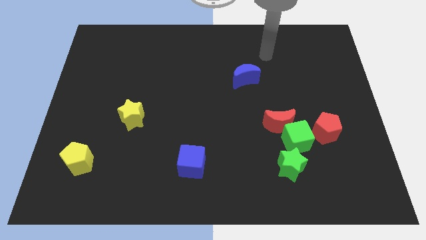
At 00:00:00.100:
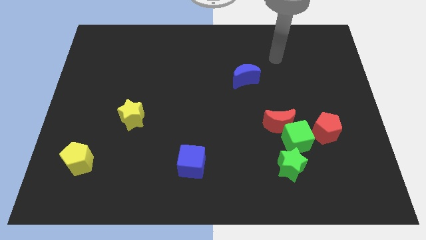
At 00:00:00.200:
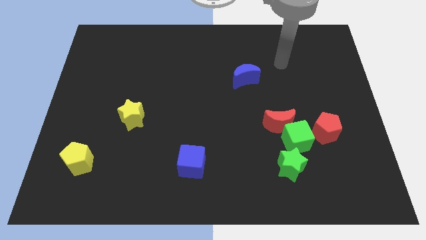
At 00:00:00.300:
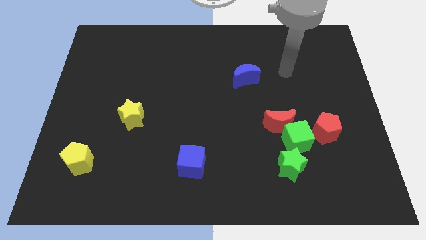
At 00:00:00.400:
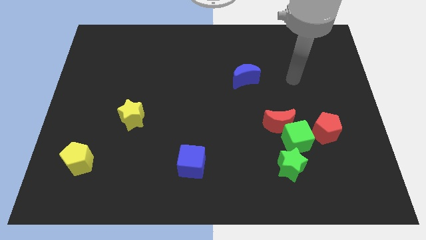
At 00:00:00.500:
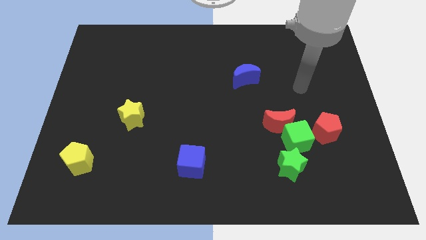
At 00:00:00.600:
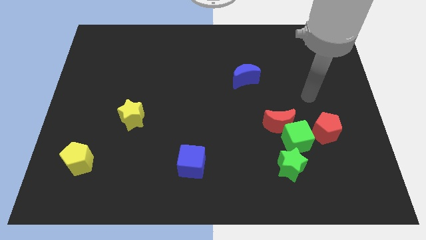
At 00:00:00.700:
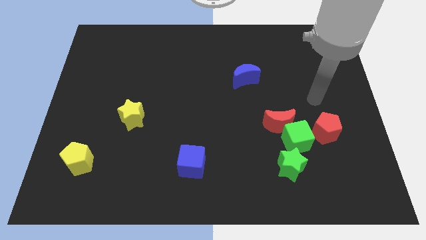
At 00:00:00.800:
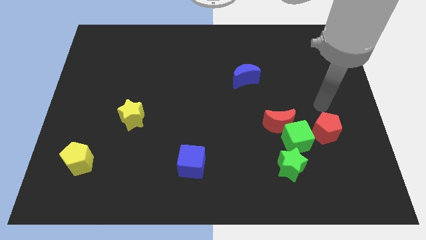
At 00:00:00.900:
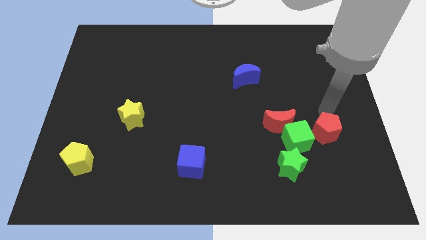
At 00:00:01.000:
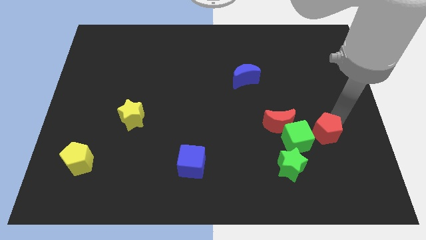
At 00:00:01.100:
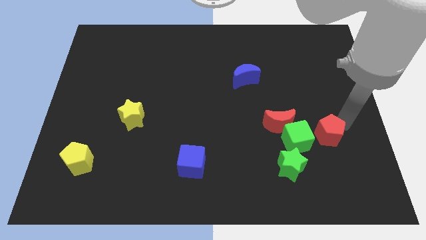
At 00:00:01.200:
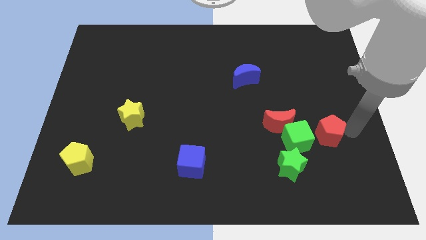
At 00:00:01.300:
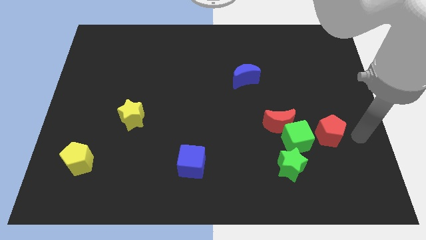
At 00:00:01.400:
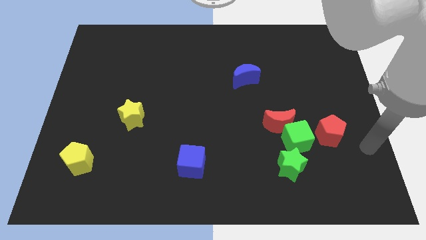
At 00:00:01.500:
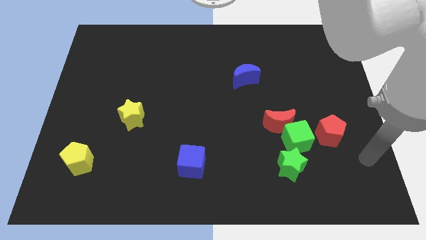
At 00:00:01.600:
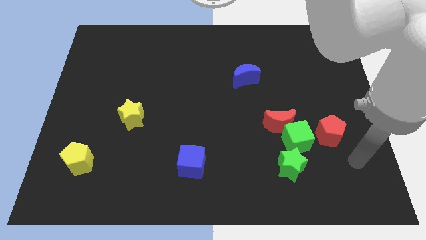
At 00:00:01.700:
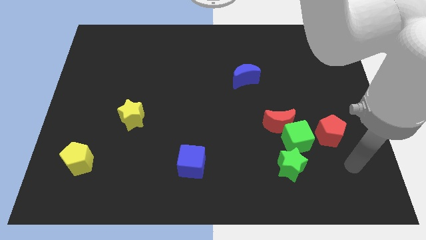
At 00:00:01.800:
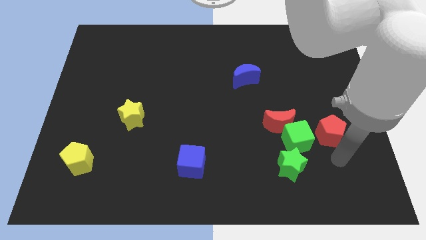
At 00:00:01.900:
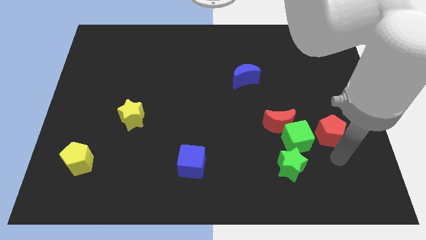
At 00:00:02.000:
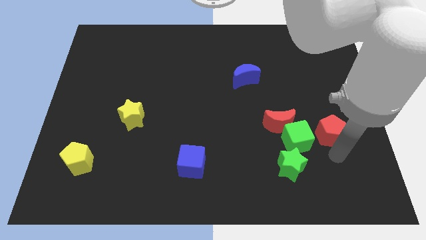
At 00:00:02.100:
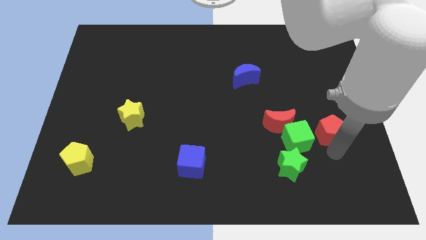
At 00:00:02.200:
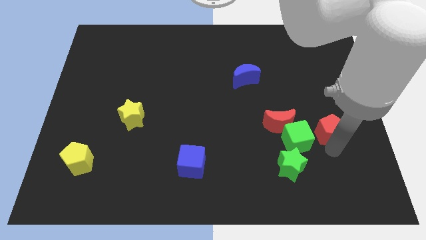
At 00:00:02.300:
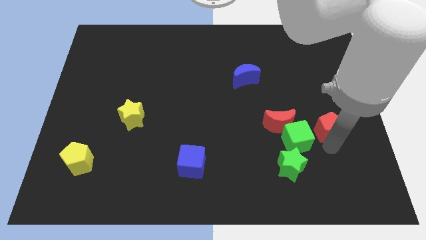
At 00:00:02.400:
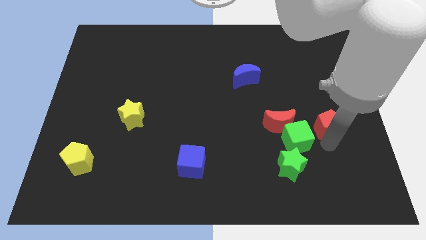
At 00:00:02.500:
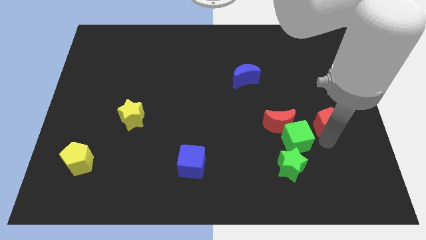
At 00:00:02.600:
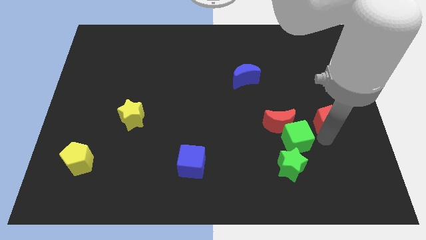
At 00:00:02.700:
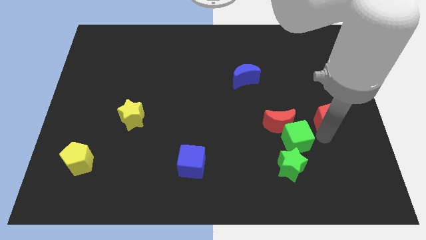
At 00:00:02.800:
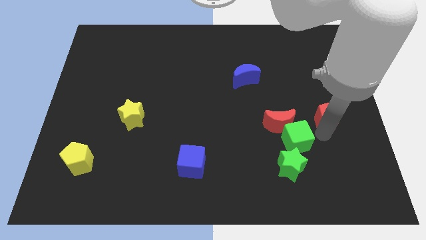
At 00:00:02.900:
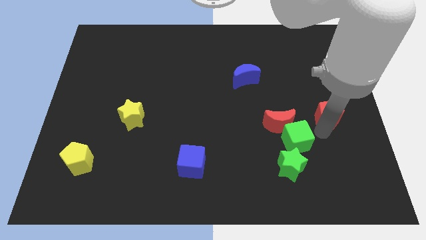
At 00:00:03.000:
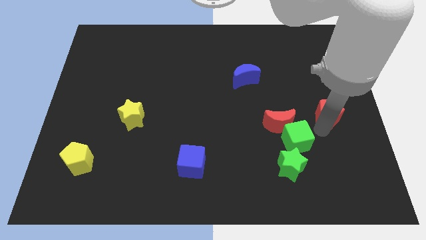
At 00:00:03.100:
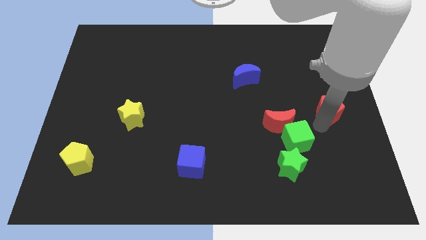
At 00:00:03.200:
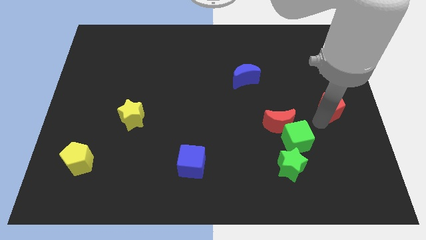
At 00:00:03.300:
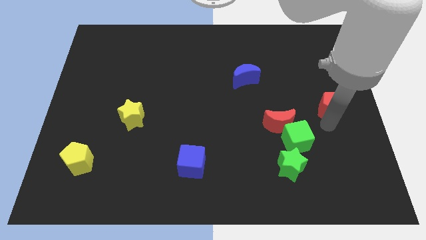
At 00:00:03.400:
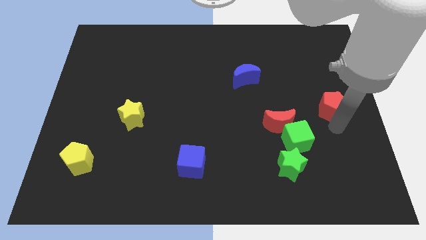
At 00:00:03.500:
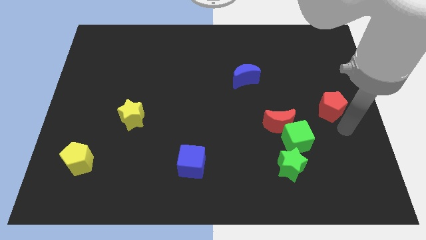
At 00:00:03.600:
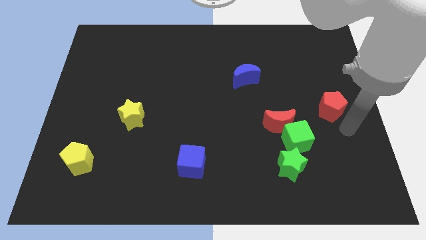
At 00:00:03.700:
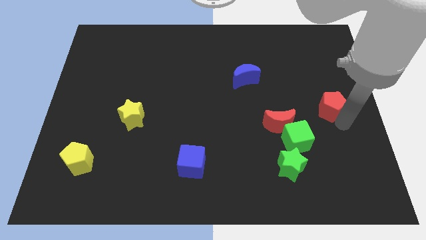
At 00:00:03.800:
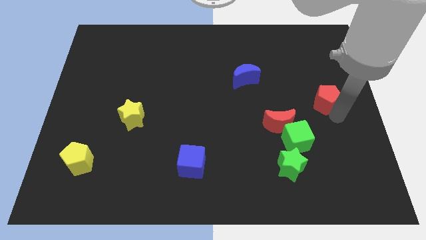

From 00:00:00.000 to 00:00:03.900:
slightly push the red pentagon up

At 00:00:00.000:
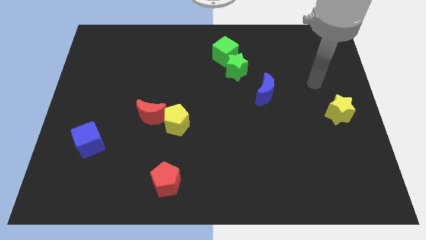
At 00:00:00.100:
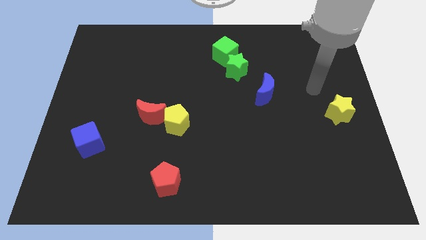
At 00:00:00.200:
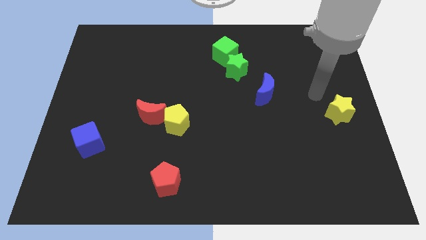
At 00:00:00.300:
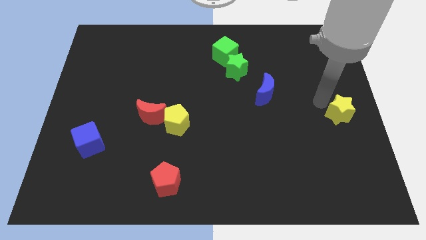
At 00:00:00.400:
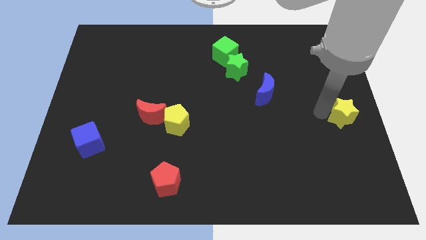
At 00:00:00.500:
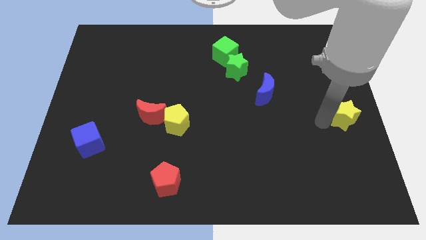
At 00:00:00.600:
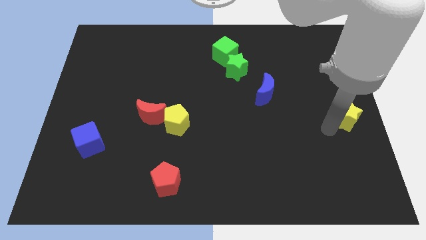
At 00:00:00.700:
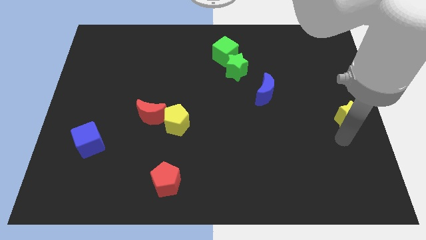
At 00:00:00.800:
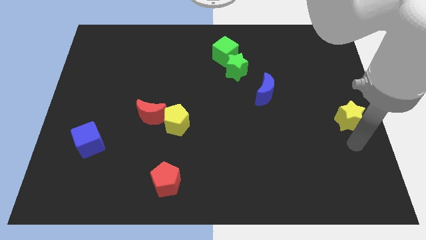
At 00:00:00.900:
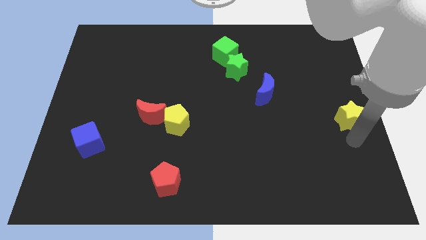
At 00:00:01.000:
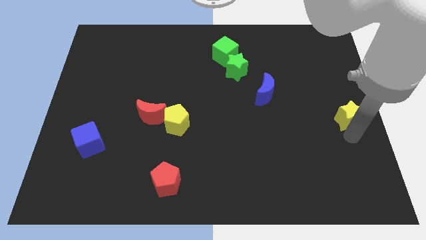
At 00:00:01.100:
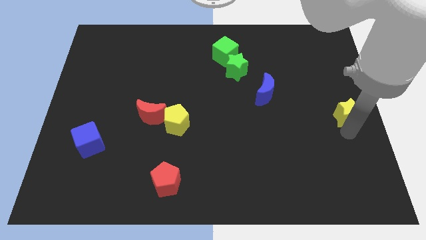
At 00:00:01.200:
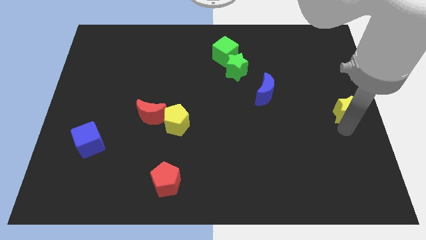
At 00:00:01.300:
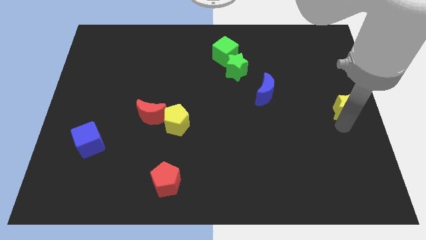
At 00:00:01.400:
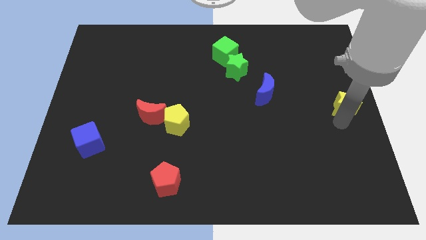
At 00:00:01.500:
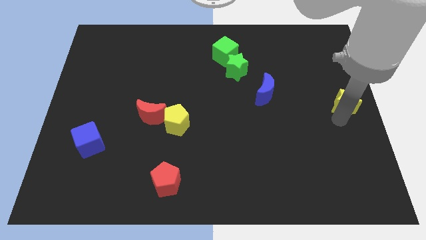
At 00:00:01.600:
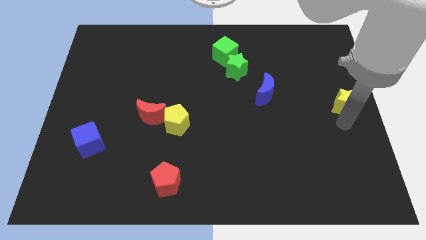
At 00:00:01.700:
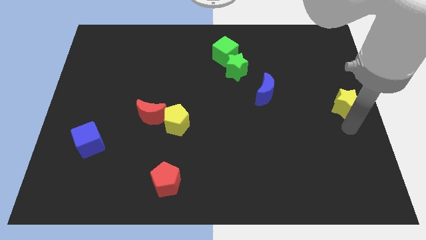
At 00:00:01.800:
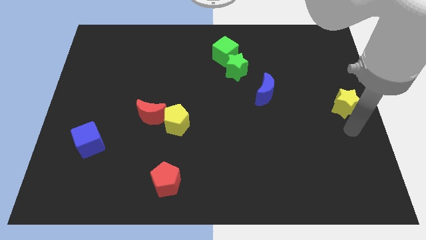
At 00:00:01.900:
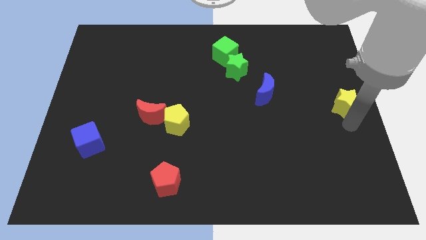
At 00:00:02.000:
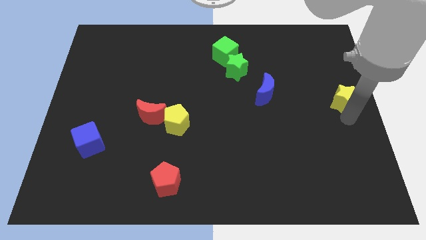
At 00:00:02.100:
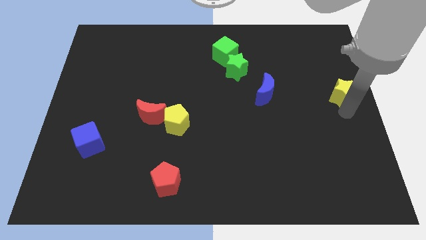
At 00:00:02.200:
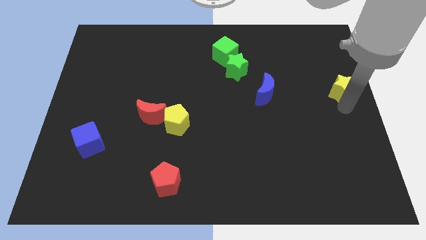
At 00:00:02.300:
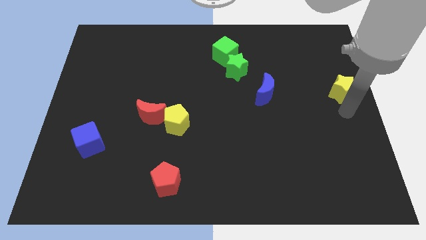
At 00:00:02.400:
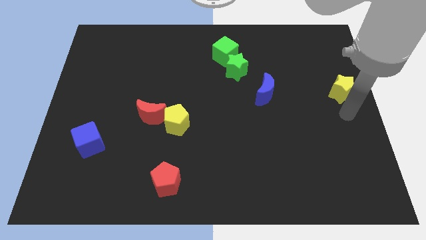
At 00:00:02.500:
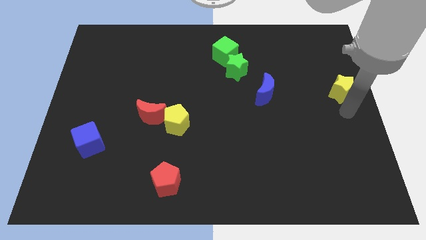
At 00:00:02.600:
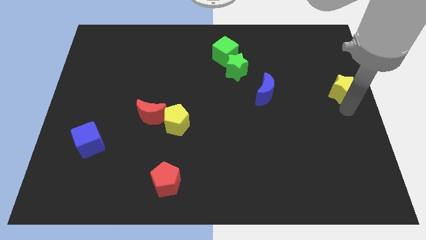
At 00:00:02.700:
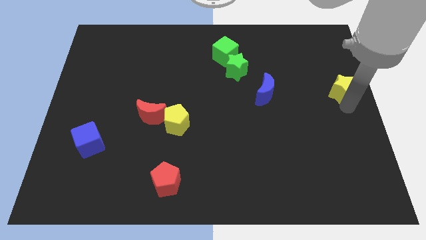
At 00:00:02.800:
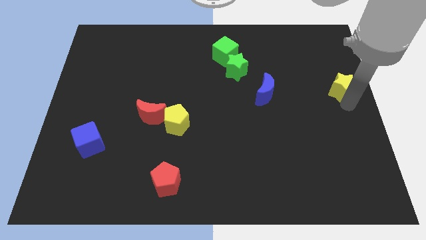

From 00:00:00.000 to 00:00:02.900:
slightly push the yellow star upwards

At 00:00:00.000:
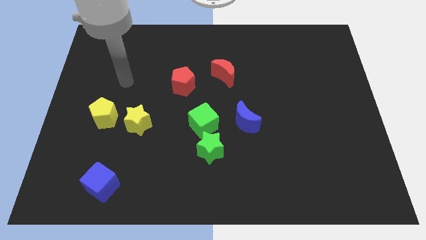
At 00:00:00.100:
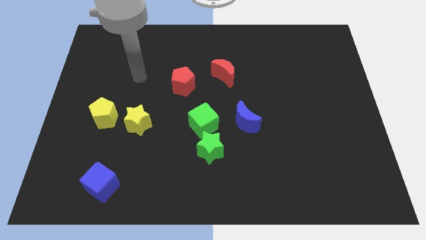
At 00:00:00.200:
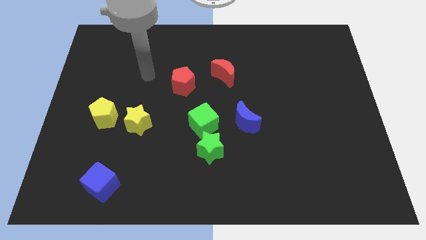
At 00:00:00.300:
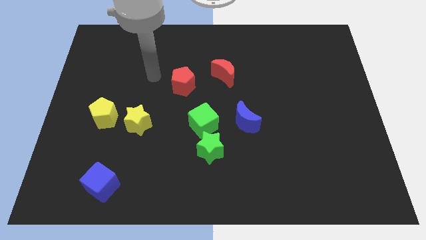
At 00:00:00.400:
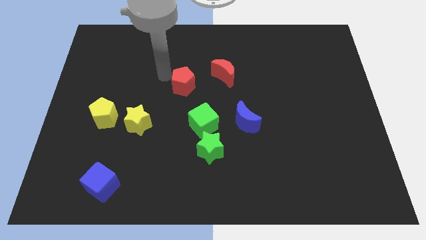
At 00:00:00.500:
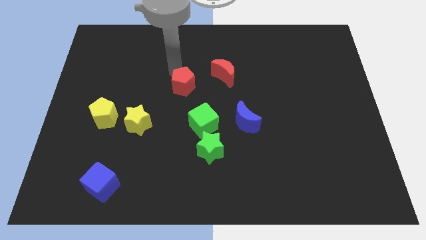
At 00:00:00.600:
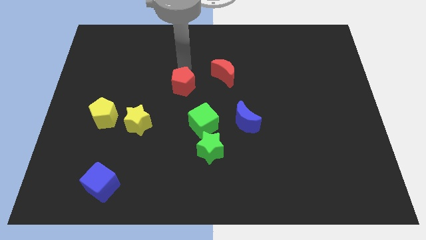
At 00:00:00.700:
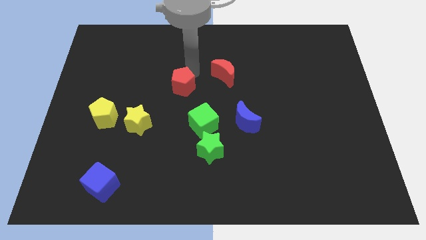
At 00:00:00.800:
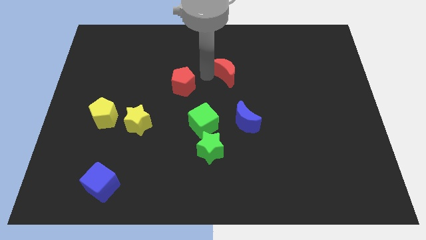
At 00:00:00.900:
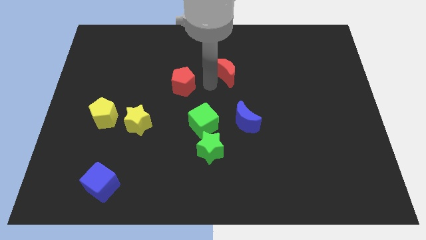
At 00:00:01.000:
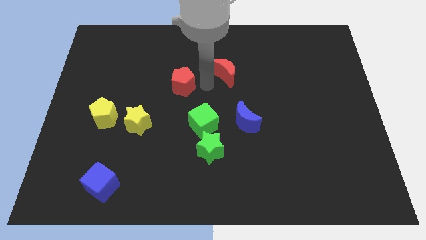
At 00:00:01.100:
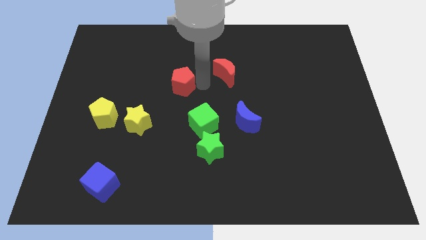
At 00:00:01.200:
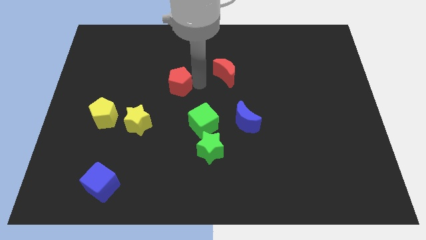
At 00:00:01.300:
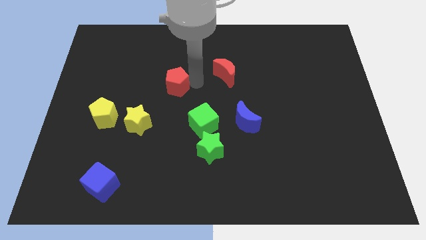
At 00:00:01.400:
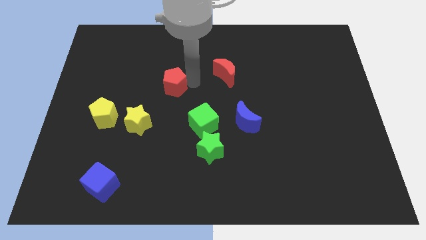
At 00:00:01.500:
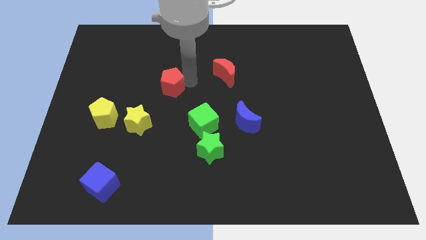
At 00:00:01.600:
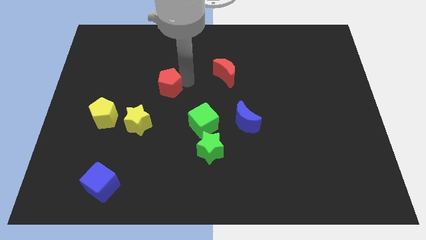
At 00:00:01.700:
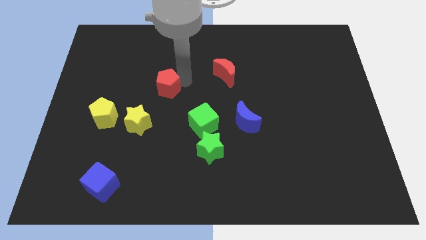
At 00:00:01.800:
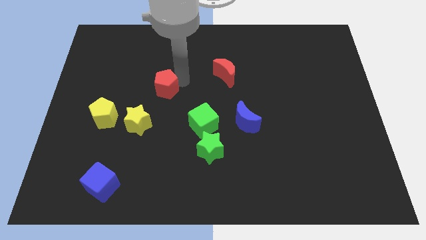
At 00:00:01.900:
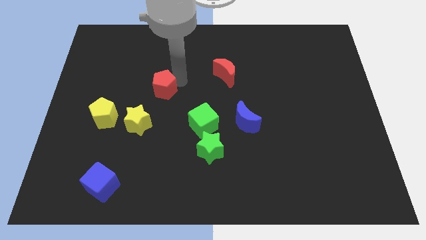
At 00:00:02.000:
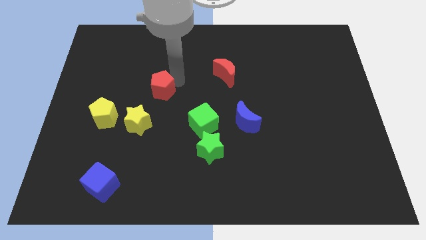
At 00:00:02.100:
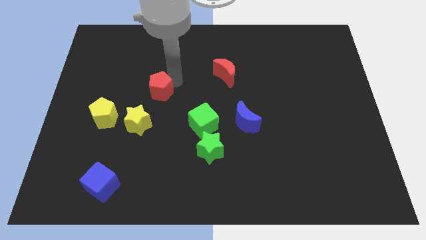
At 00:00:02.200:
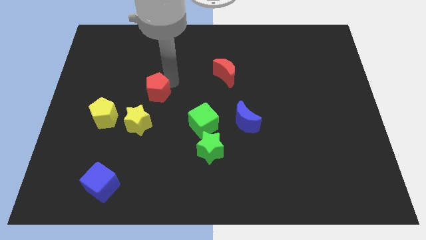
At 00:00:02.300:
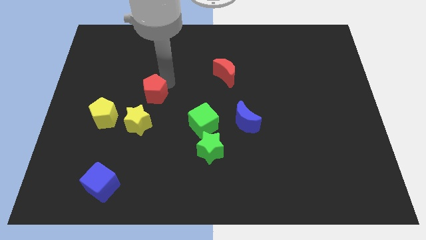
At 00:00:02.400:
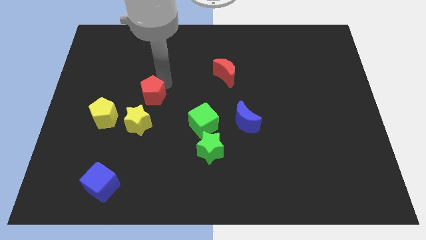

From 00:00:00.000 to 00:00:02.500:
push the red pentagon to the left a little bit
